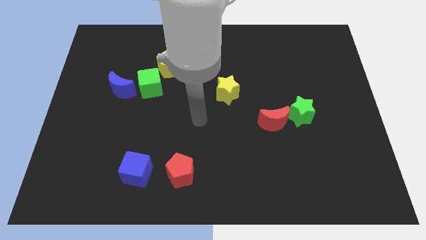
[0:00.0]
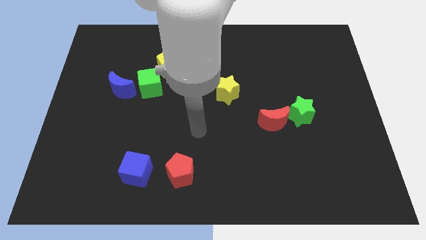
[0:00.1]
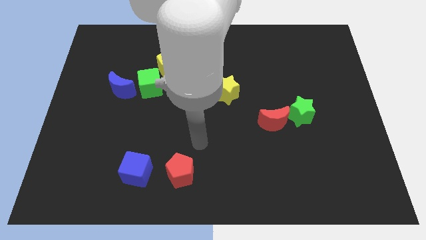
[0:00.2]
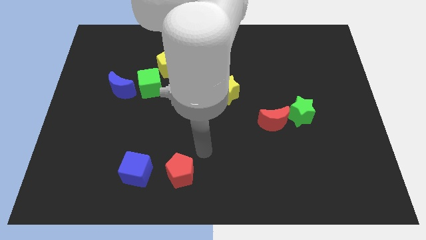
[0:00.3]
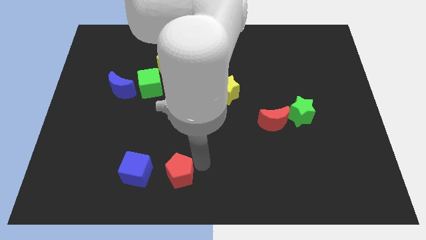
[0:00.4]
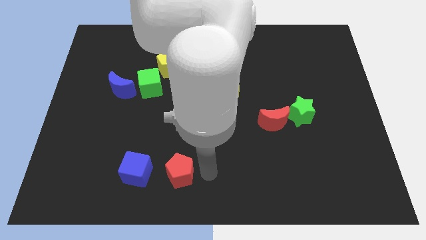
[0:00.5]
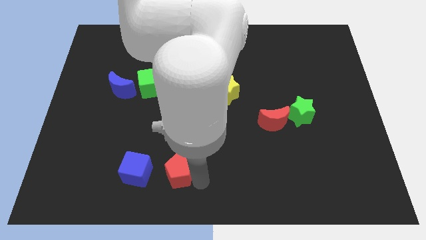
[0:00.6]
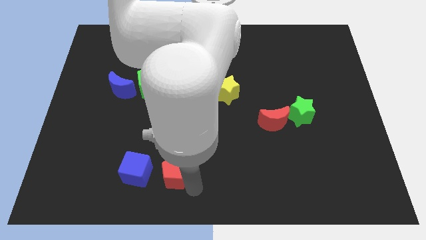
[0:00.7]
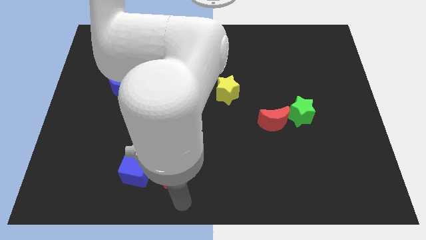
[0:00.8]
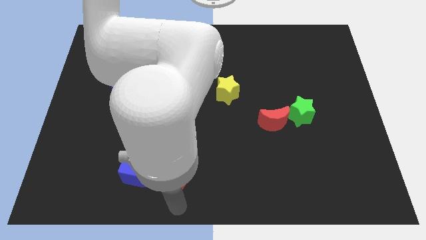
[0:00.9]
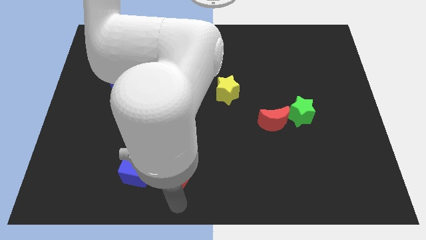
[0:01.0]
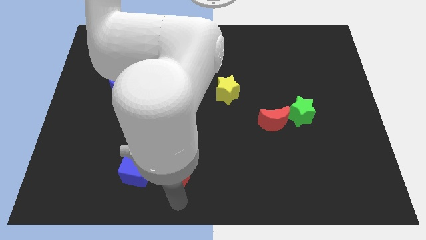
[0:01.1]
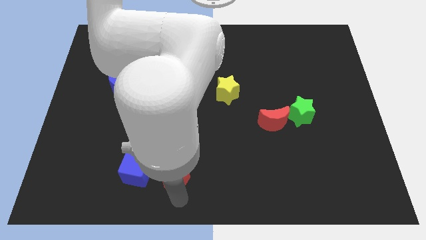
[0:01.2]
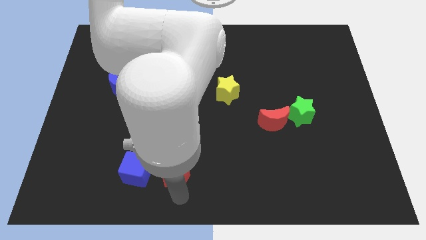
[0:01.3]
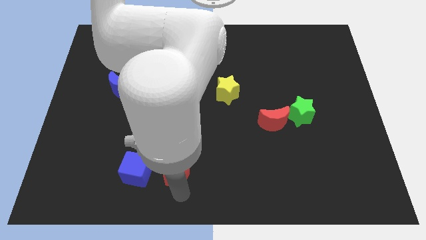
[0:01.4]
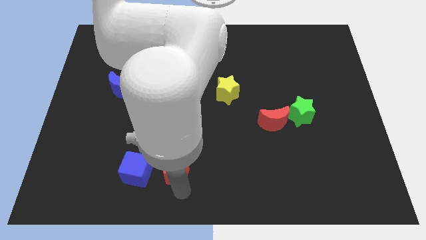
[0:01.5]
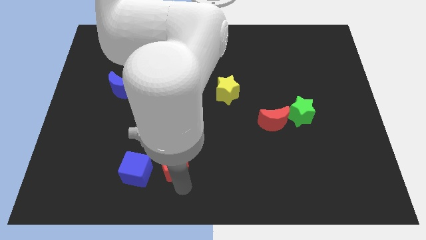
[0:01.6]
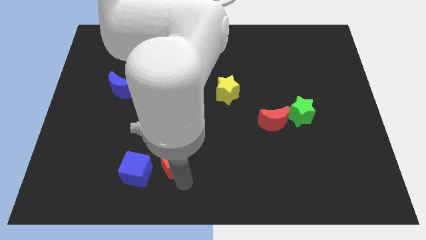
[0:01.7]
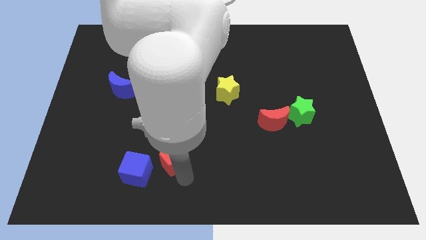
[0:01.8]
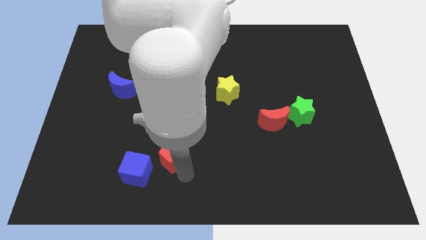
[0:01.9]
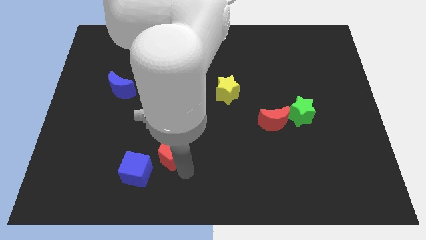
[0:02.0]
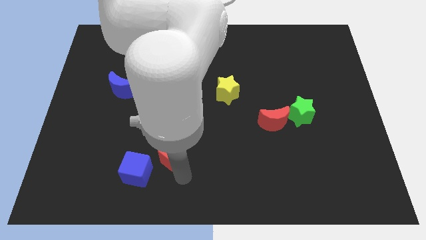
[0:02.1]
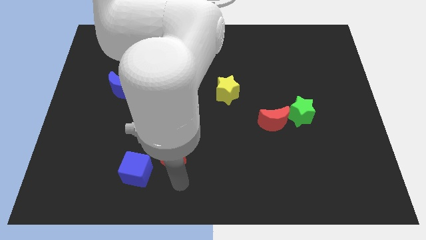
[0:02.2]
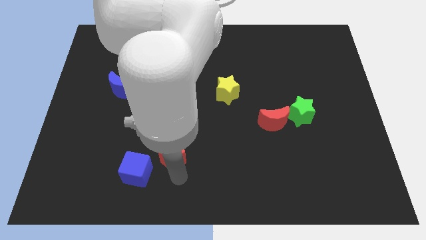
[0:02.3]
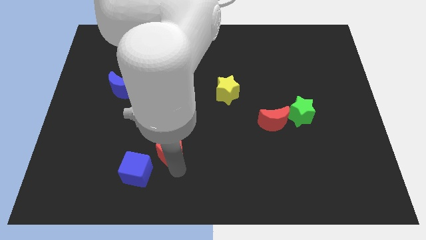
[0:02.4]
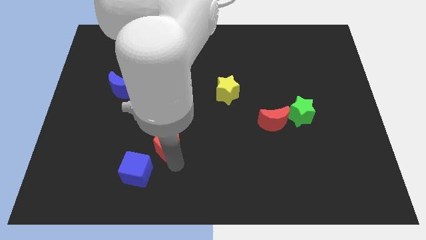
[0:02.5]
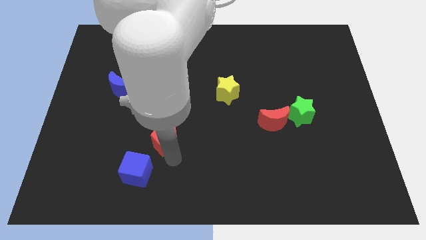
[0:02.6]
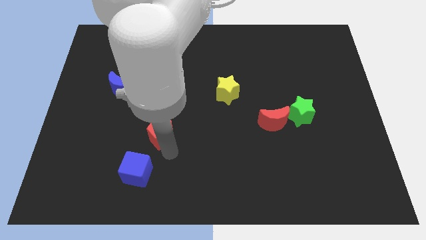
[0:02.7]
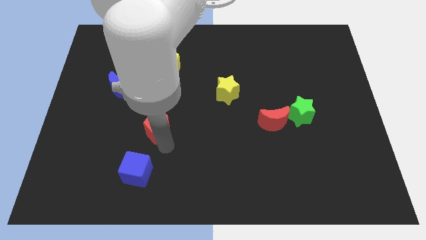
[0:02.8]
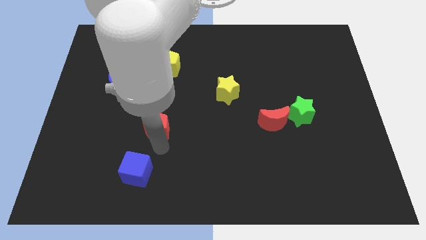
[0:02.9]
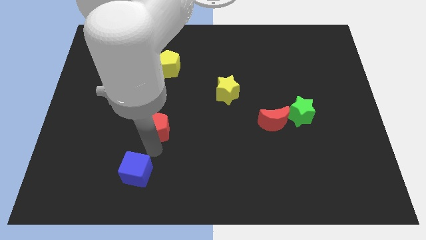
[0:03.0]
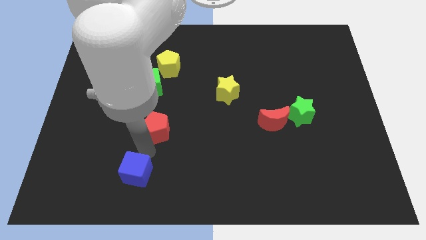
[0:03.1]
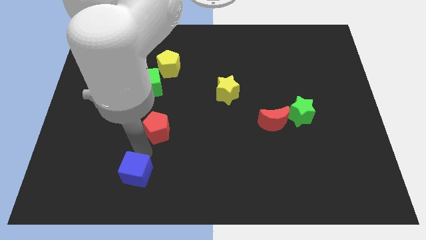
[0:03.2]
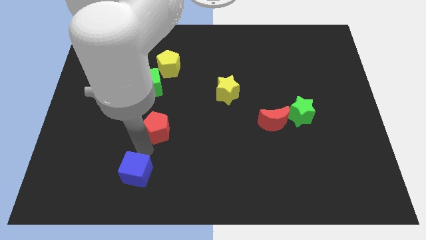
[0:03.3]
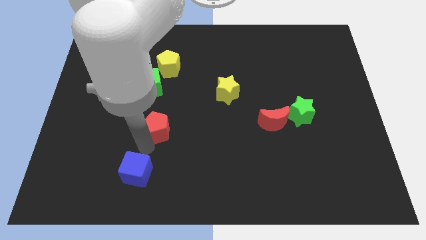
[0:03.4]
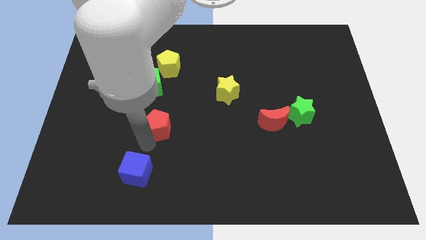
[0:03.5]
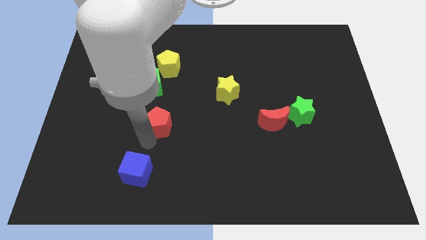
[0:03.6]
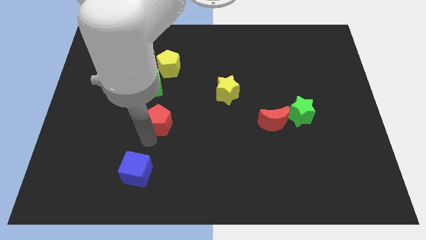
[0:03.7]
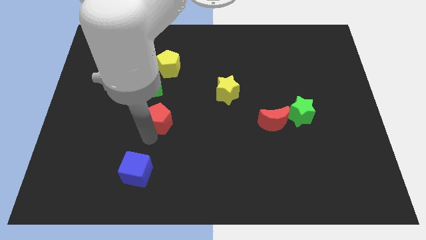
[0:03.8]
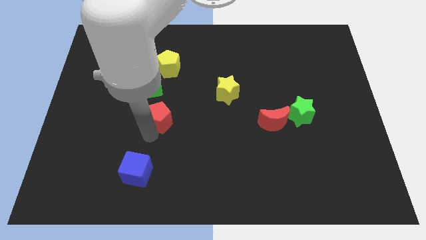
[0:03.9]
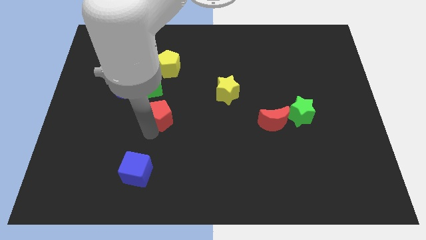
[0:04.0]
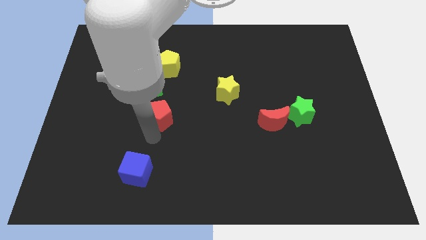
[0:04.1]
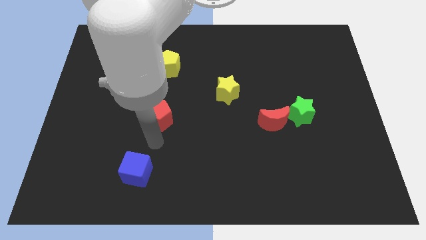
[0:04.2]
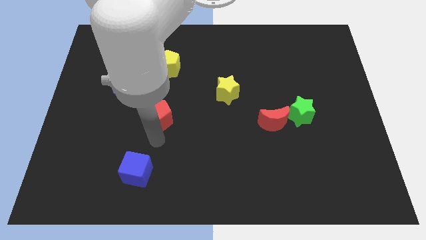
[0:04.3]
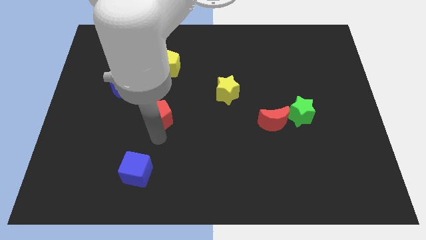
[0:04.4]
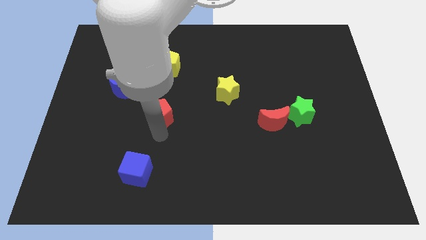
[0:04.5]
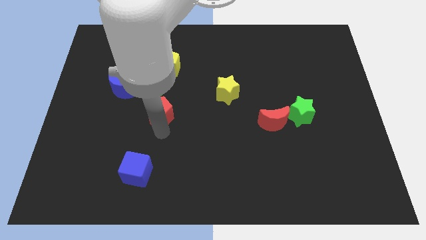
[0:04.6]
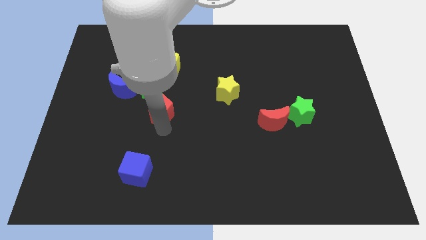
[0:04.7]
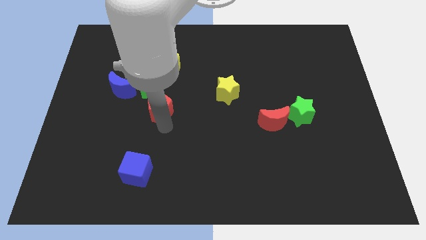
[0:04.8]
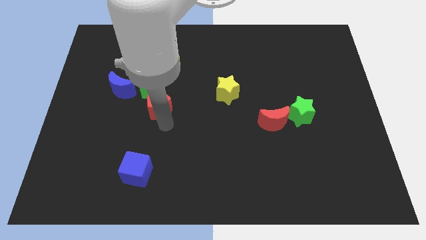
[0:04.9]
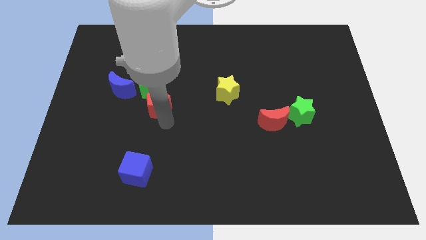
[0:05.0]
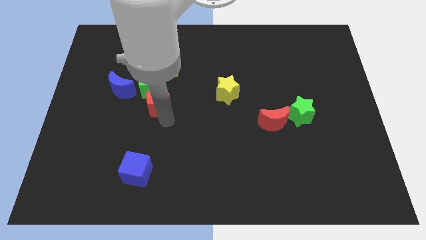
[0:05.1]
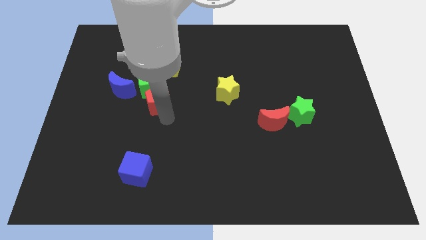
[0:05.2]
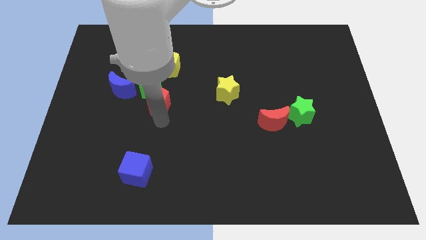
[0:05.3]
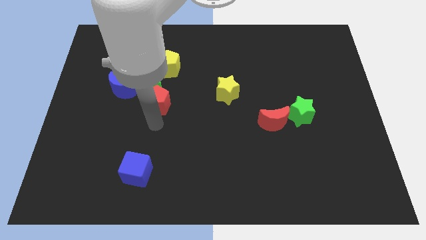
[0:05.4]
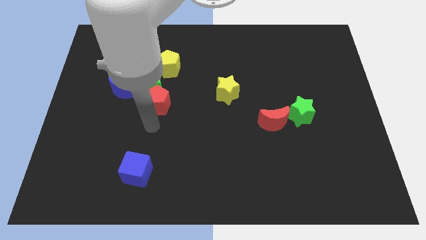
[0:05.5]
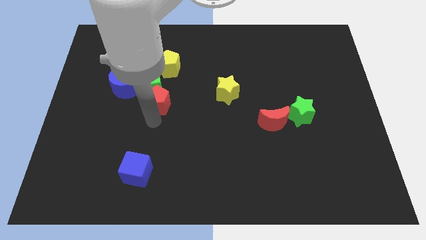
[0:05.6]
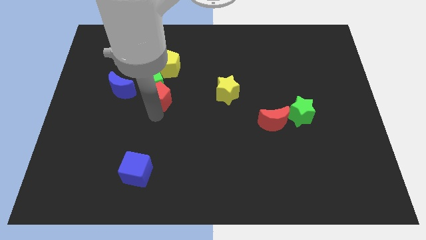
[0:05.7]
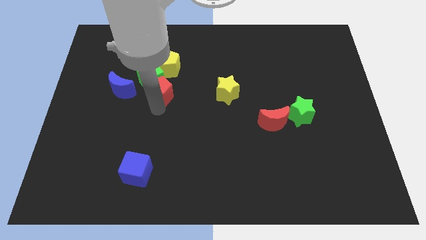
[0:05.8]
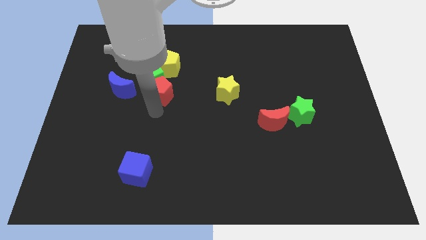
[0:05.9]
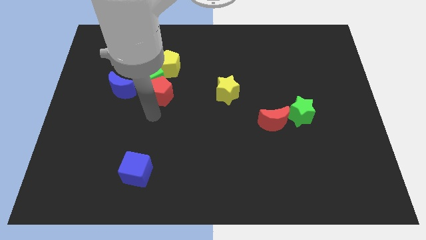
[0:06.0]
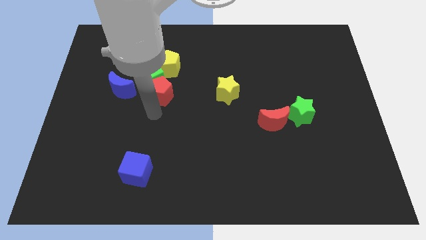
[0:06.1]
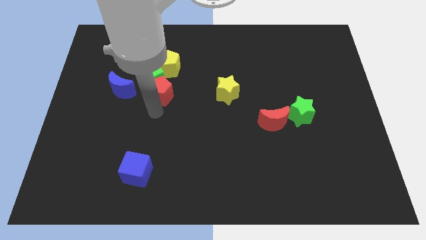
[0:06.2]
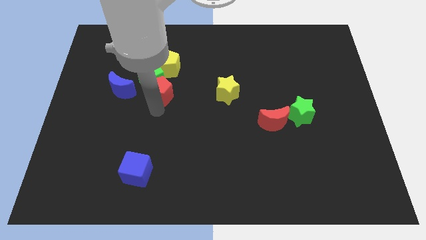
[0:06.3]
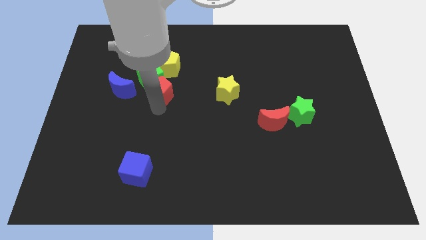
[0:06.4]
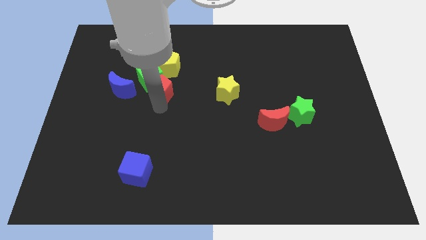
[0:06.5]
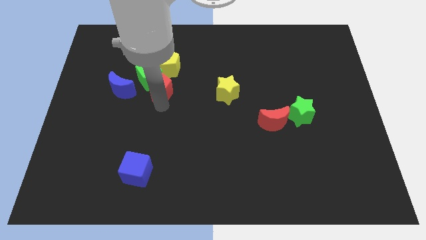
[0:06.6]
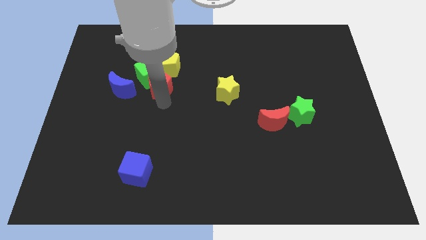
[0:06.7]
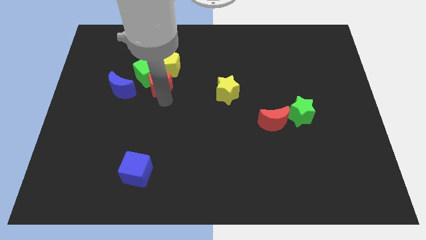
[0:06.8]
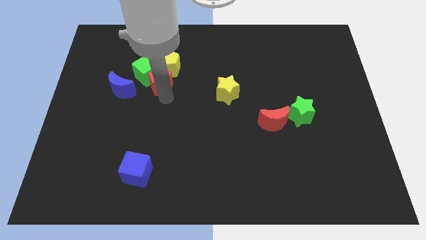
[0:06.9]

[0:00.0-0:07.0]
push the red pentagon to the yellow pentagon

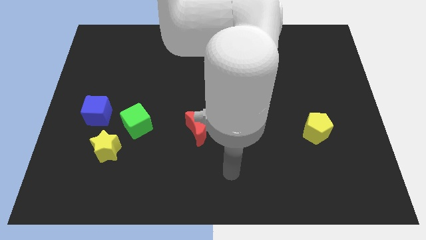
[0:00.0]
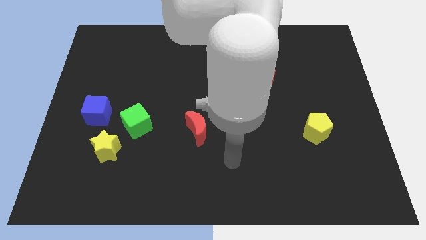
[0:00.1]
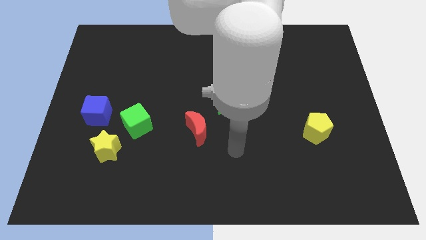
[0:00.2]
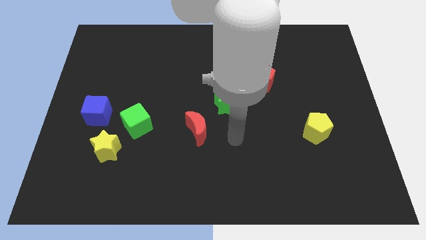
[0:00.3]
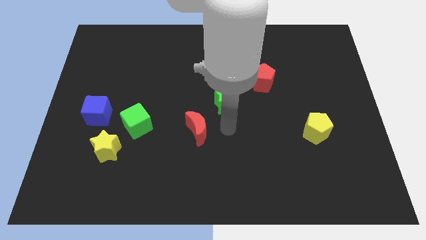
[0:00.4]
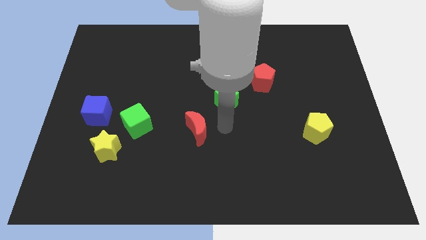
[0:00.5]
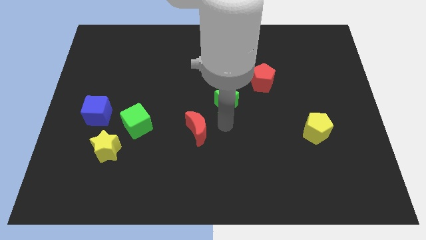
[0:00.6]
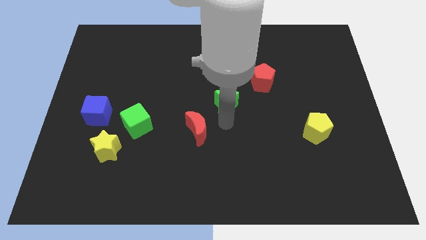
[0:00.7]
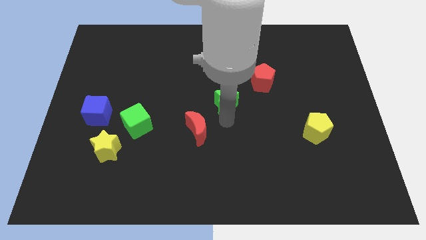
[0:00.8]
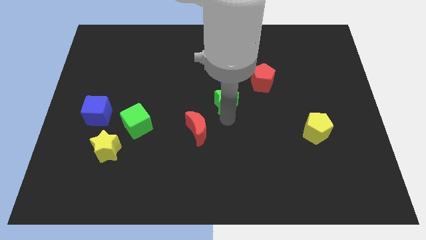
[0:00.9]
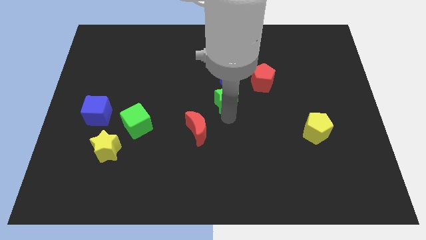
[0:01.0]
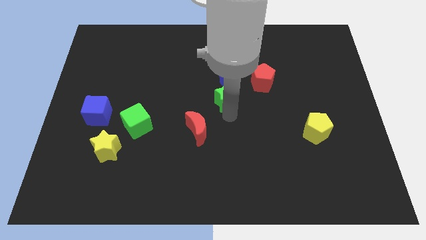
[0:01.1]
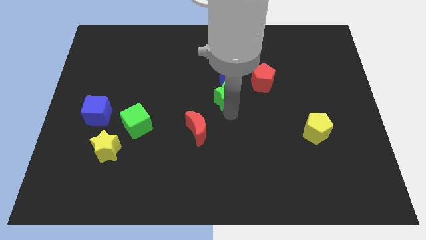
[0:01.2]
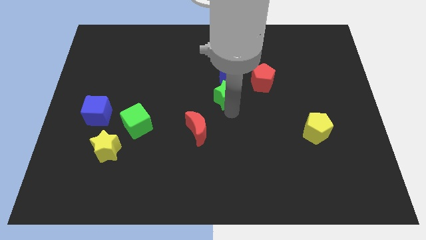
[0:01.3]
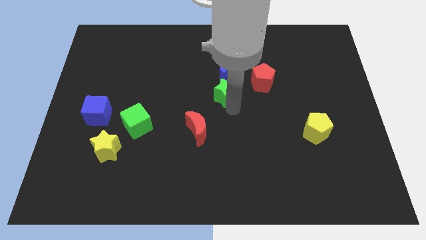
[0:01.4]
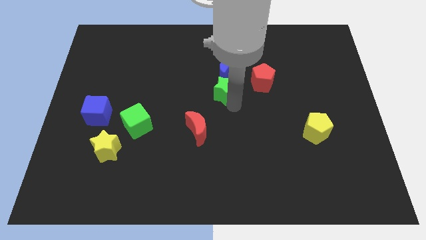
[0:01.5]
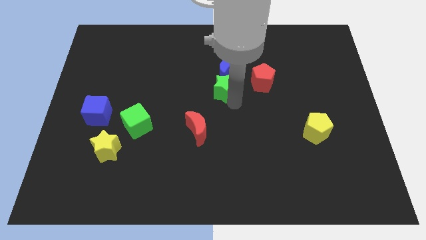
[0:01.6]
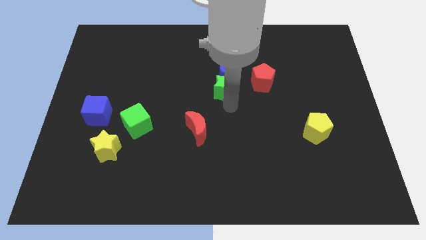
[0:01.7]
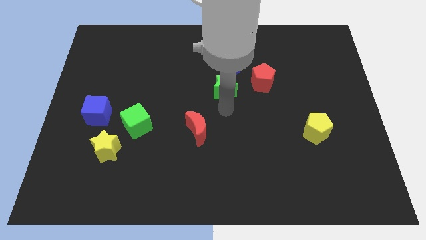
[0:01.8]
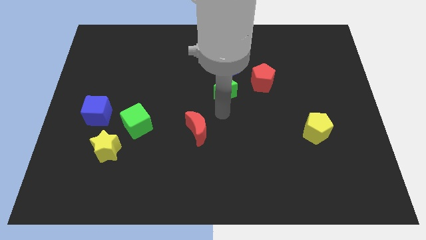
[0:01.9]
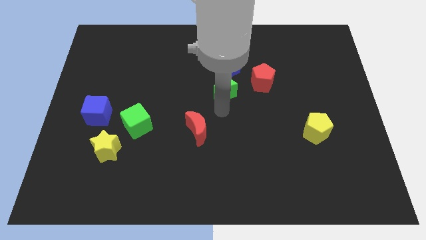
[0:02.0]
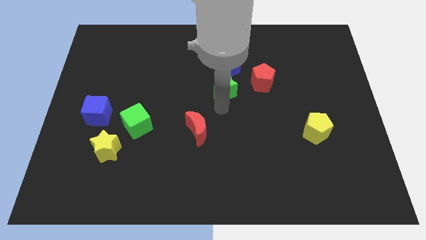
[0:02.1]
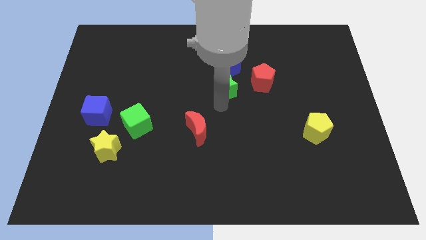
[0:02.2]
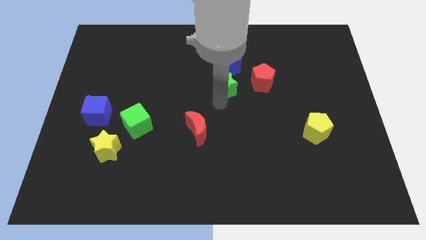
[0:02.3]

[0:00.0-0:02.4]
slide the green star towards the blue moon
